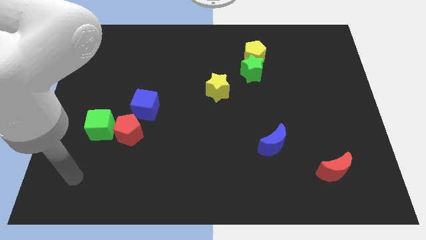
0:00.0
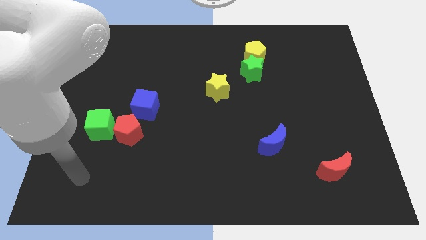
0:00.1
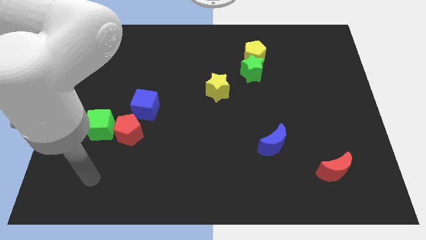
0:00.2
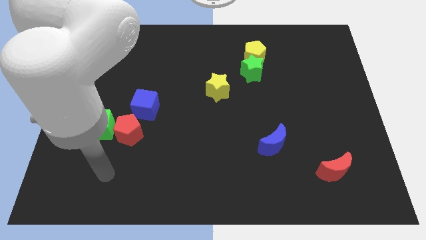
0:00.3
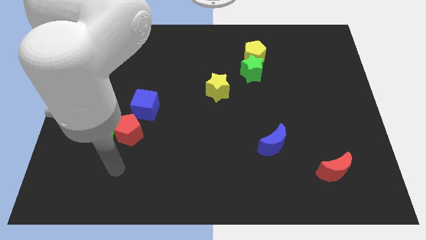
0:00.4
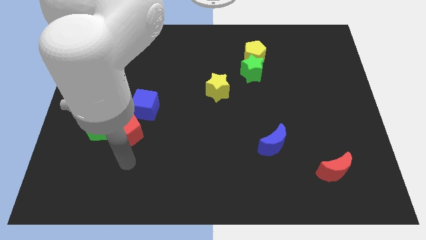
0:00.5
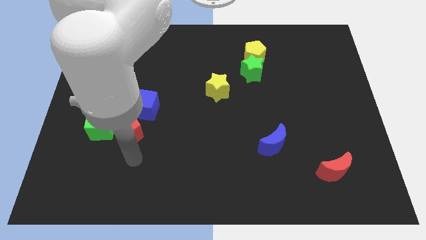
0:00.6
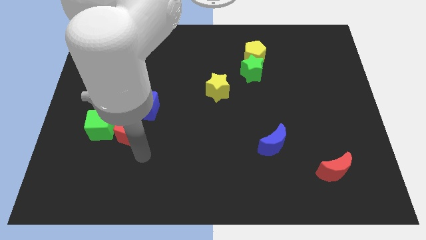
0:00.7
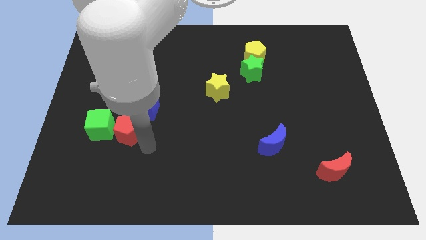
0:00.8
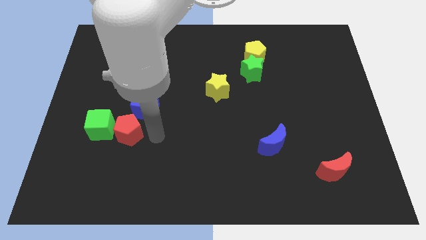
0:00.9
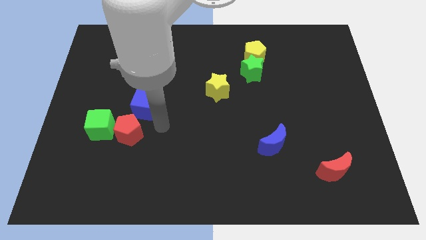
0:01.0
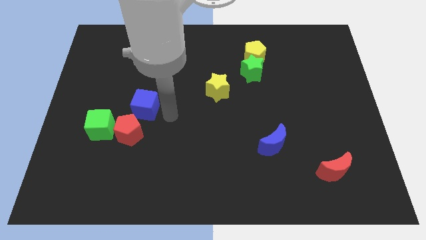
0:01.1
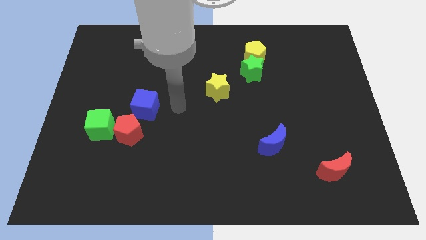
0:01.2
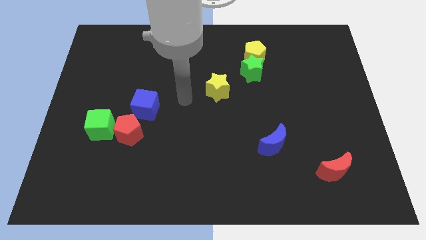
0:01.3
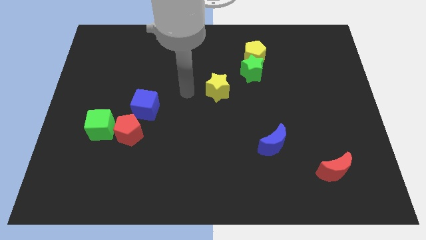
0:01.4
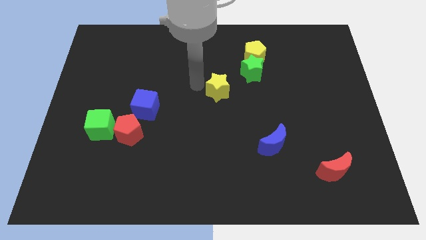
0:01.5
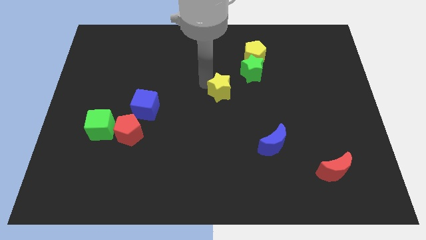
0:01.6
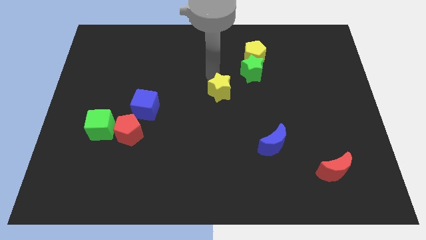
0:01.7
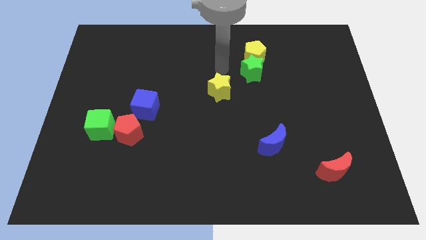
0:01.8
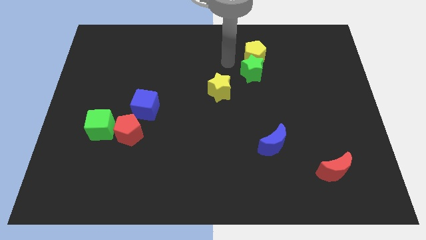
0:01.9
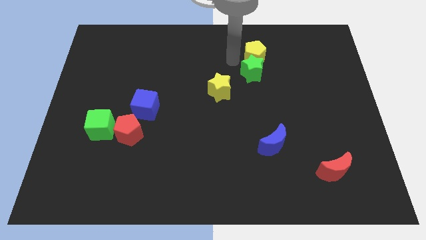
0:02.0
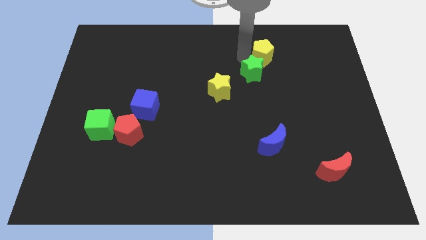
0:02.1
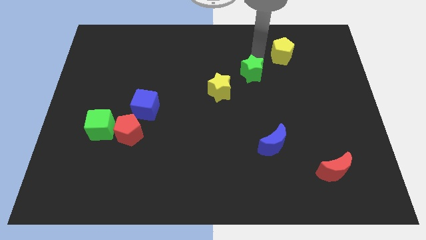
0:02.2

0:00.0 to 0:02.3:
pull the green star apart from the yellow pentagon

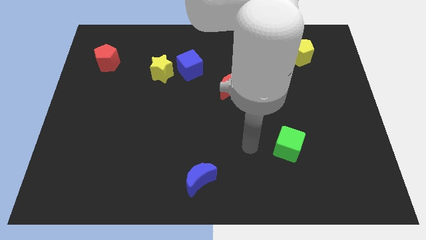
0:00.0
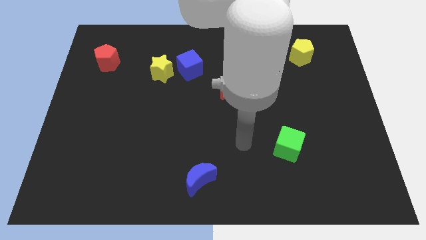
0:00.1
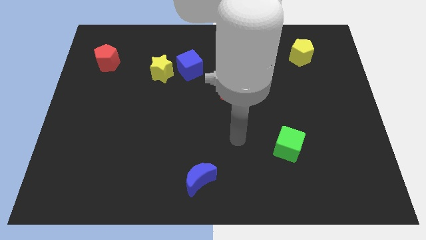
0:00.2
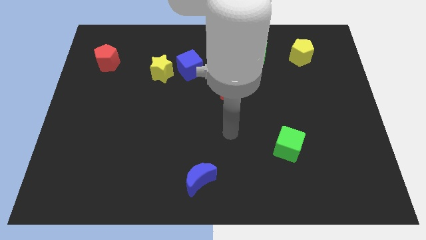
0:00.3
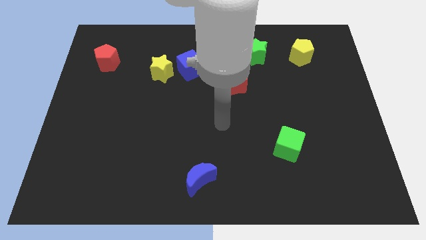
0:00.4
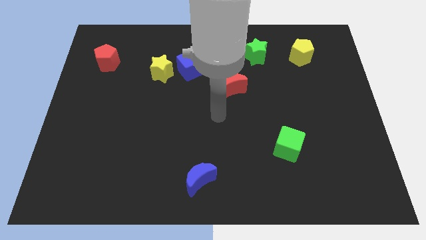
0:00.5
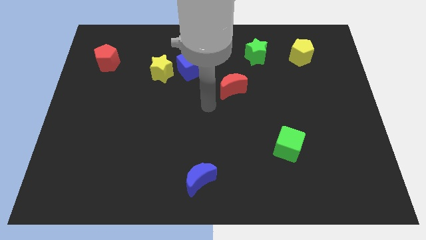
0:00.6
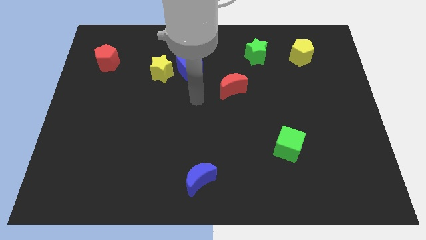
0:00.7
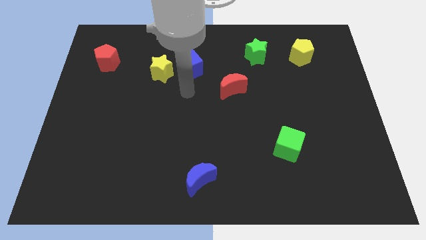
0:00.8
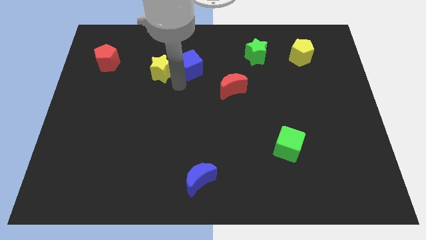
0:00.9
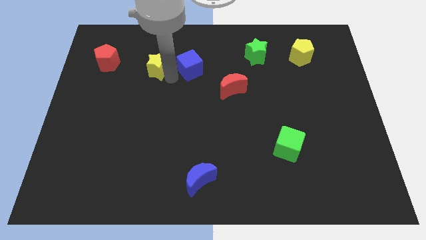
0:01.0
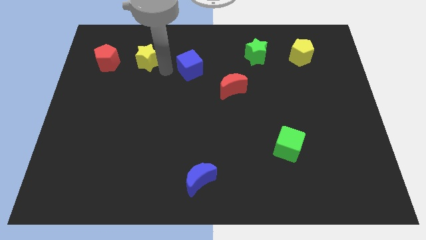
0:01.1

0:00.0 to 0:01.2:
move the blue cube away from the yellow star

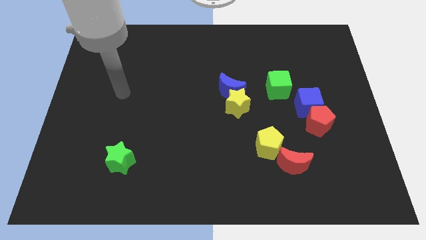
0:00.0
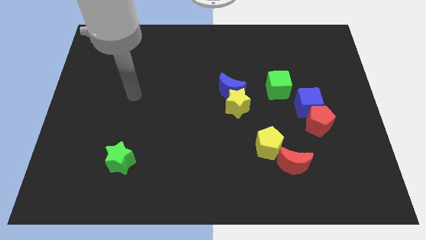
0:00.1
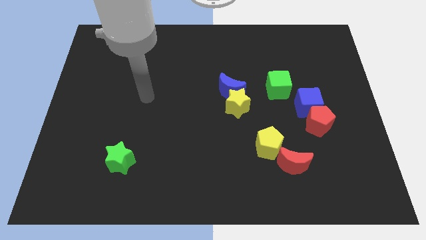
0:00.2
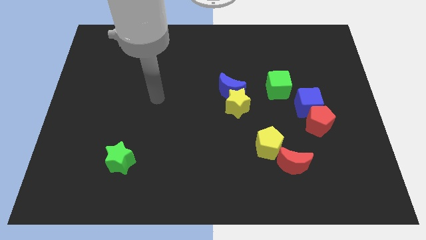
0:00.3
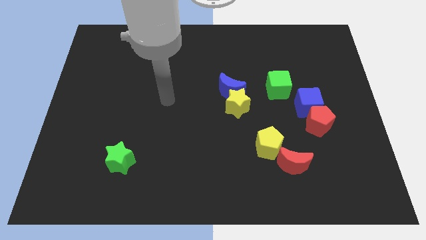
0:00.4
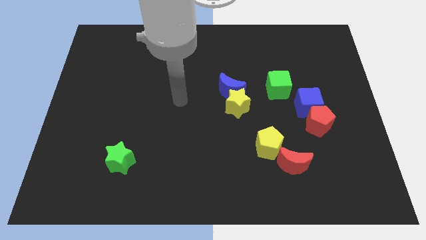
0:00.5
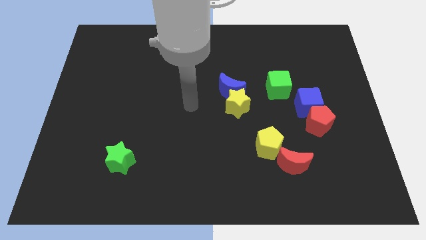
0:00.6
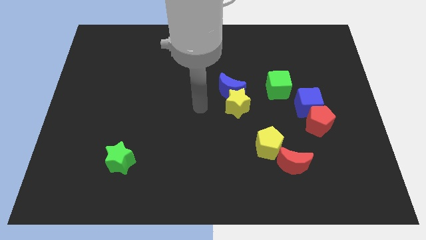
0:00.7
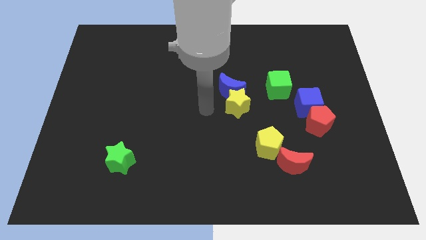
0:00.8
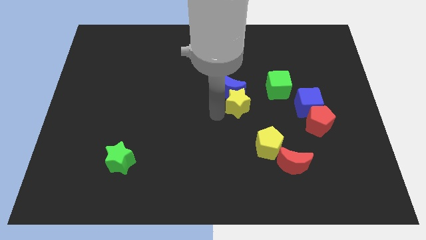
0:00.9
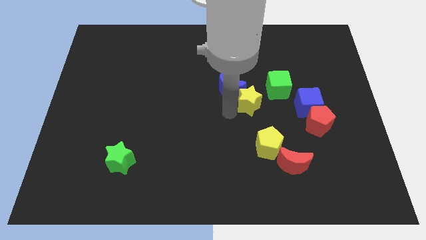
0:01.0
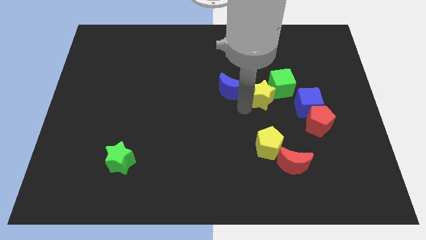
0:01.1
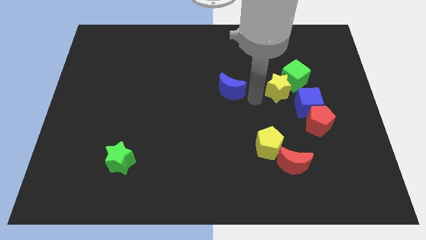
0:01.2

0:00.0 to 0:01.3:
move the blue moon away from the yellow star

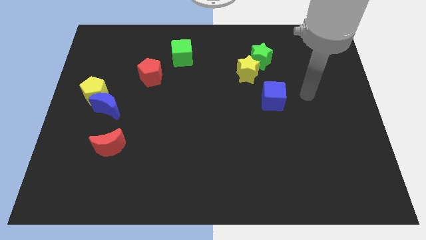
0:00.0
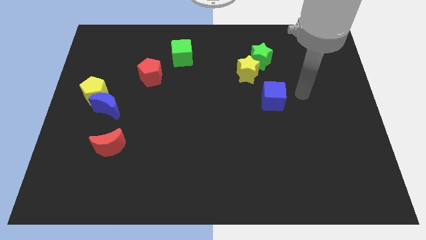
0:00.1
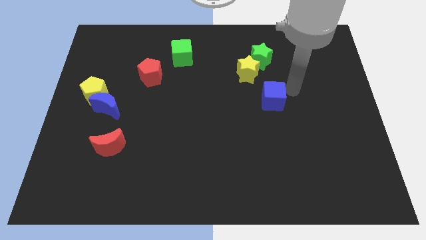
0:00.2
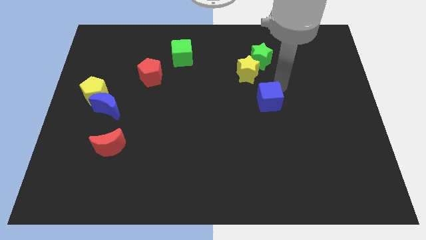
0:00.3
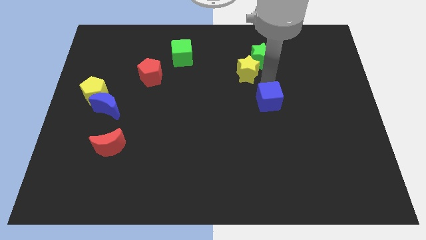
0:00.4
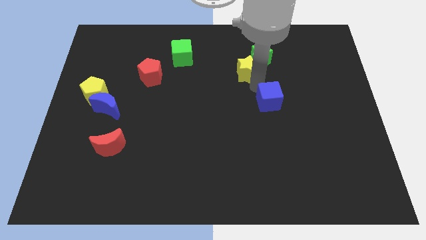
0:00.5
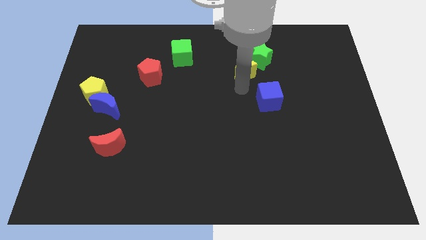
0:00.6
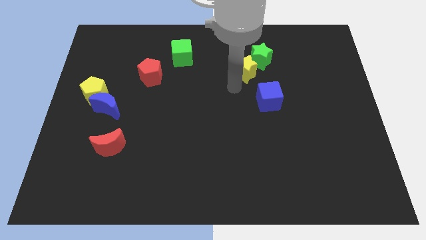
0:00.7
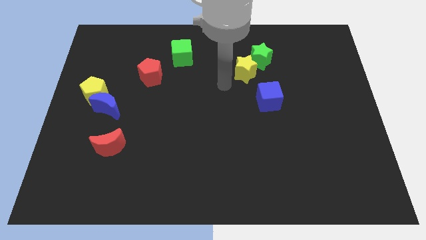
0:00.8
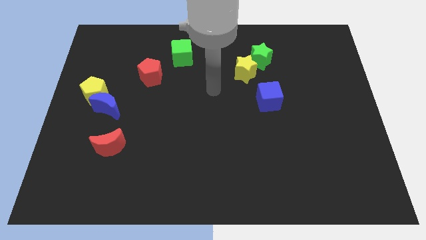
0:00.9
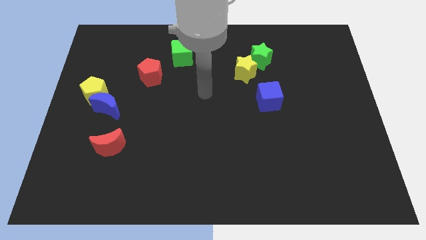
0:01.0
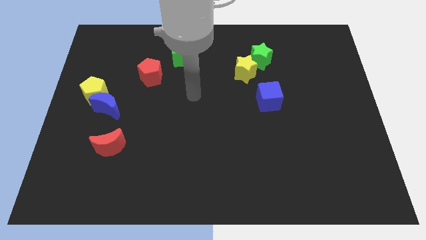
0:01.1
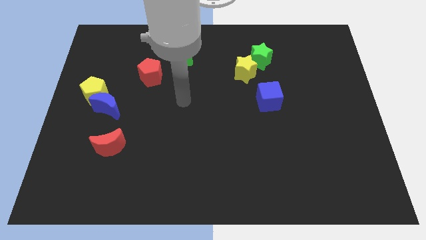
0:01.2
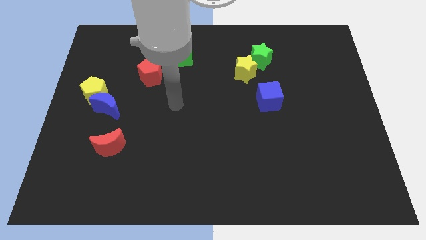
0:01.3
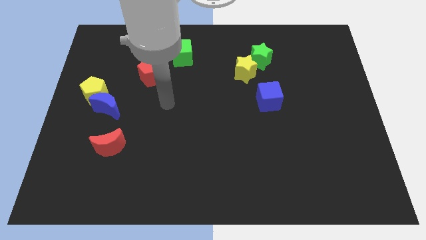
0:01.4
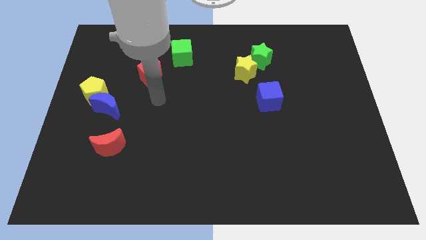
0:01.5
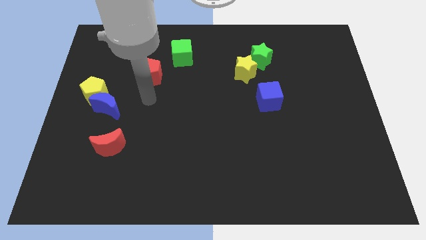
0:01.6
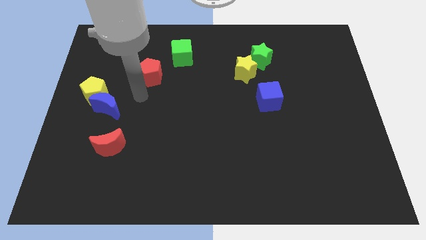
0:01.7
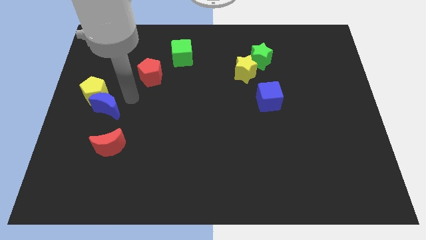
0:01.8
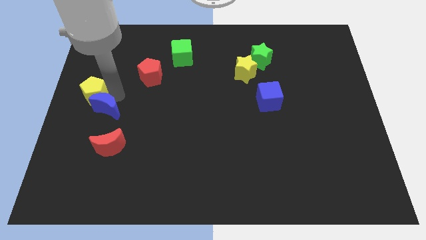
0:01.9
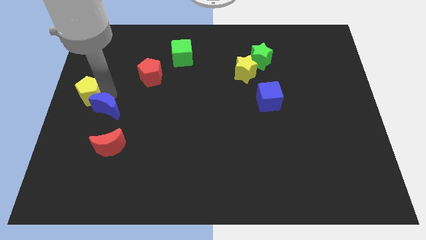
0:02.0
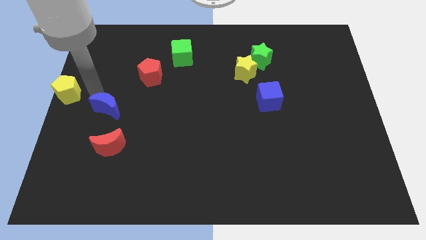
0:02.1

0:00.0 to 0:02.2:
pull the blue moon apart from the yellow pentagon

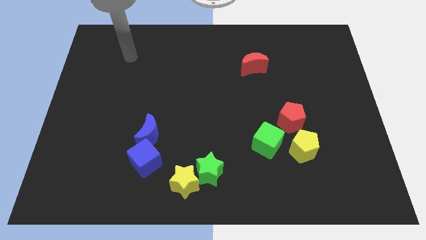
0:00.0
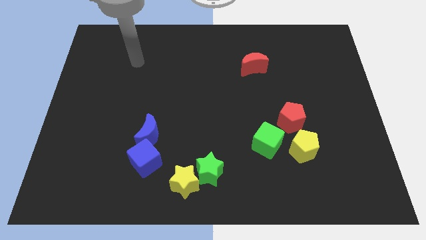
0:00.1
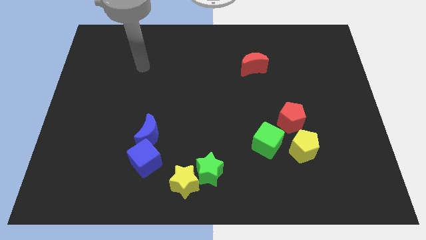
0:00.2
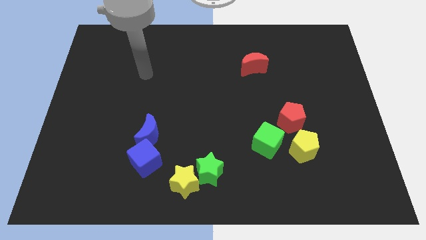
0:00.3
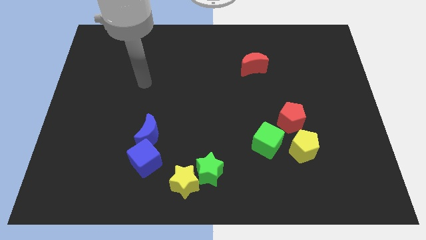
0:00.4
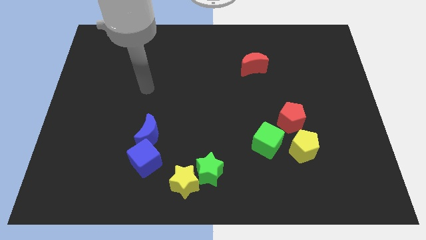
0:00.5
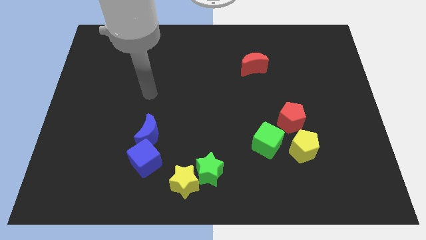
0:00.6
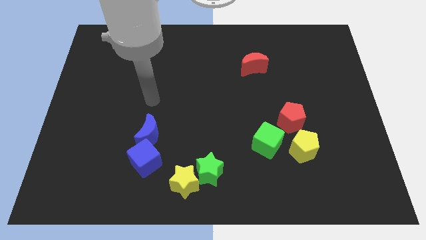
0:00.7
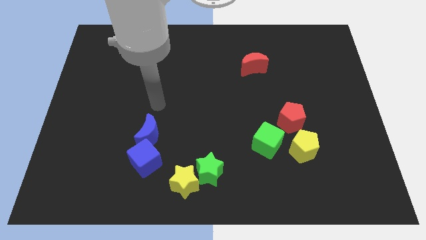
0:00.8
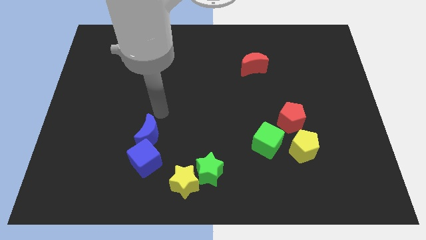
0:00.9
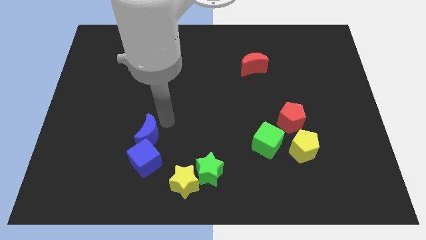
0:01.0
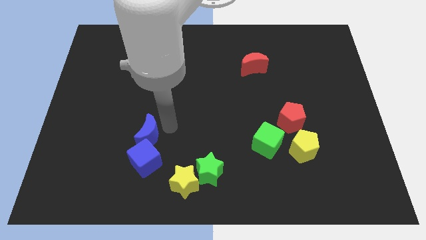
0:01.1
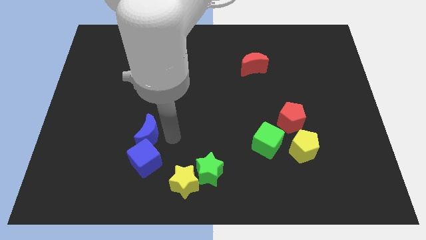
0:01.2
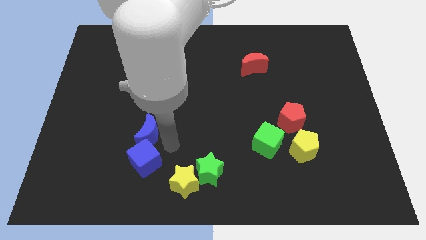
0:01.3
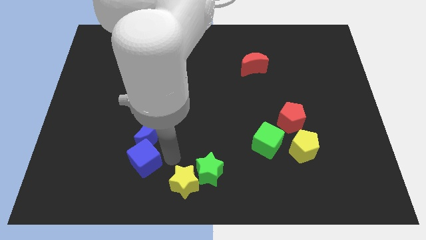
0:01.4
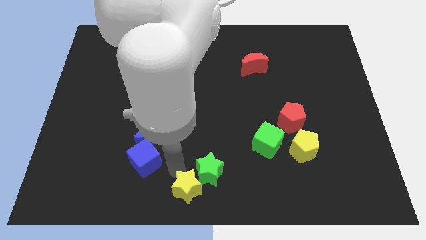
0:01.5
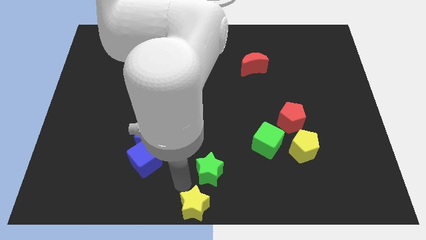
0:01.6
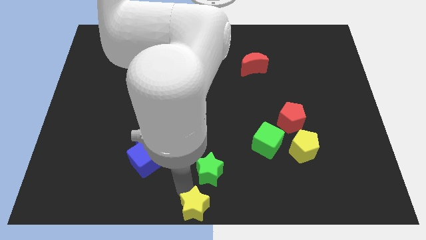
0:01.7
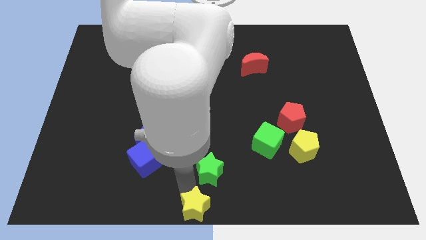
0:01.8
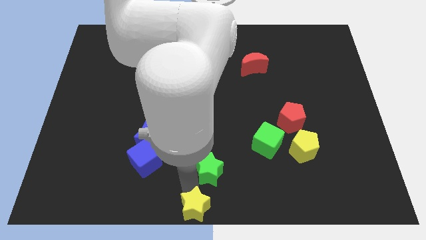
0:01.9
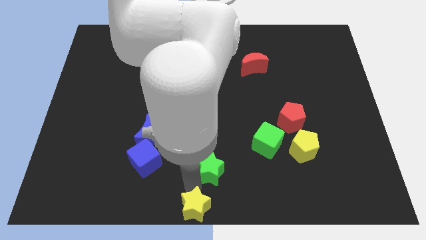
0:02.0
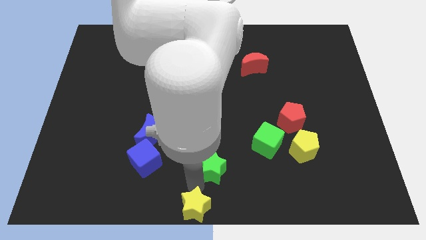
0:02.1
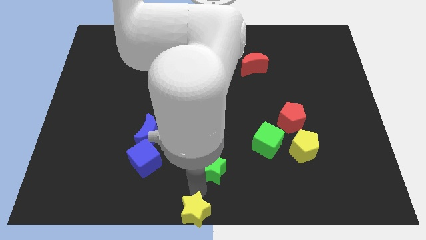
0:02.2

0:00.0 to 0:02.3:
move the green star away from the yellow star
